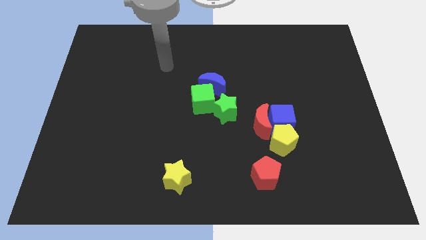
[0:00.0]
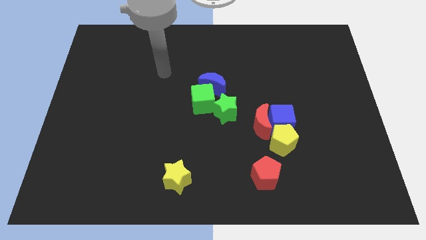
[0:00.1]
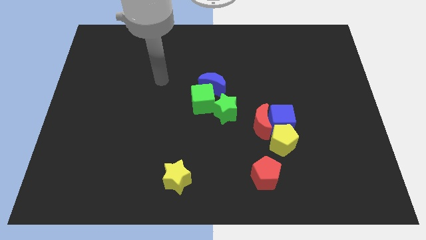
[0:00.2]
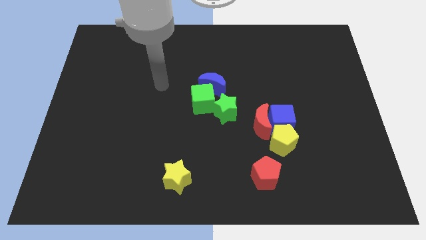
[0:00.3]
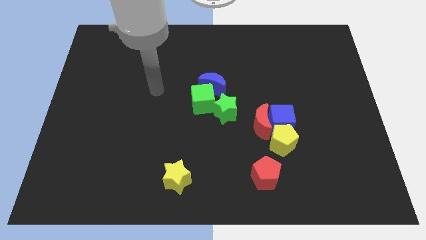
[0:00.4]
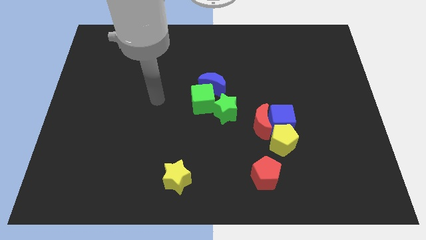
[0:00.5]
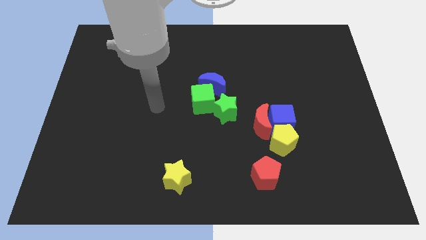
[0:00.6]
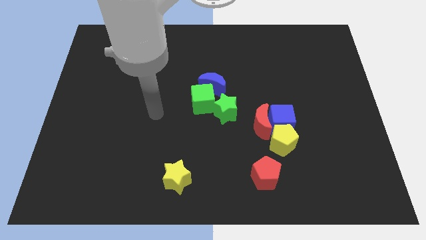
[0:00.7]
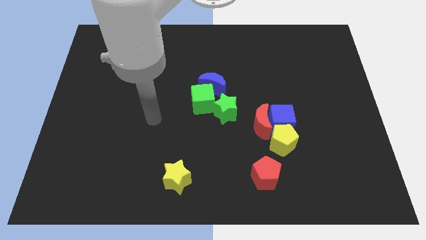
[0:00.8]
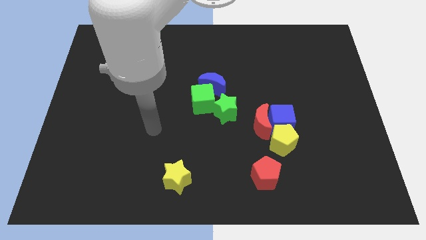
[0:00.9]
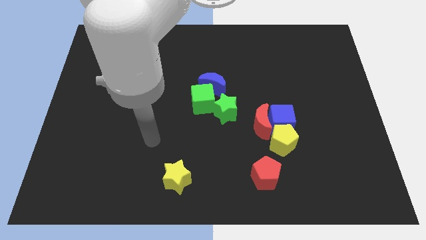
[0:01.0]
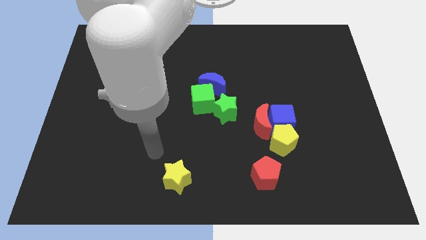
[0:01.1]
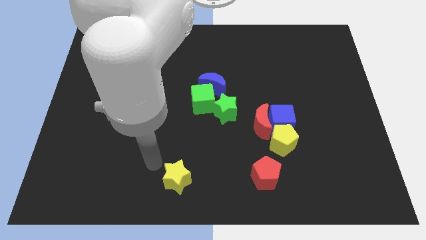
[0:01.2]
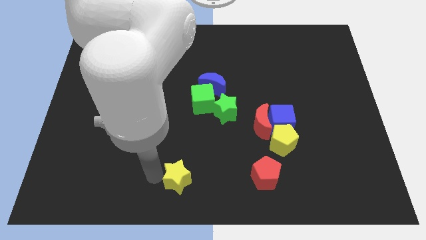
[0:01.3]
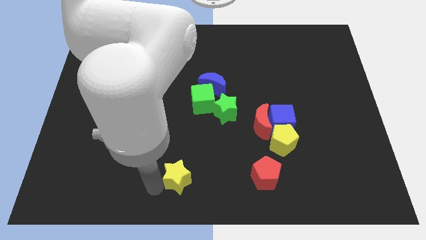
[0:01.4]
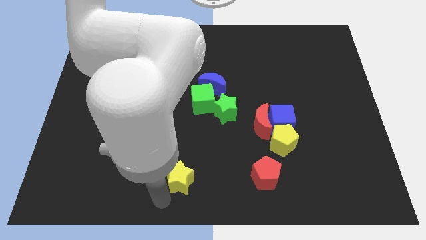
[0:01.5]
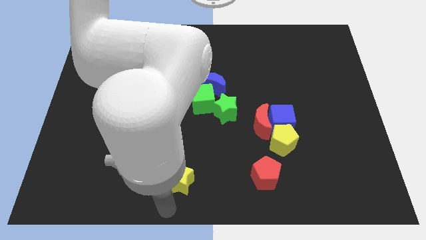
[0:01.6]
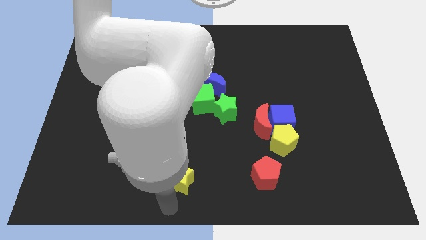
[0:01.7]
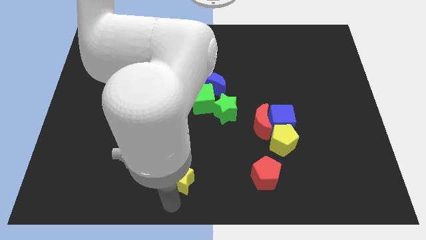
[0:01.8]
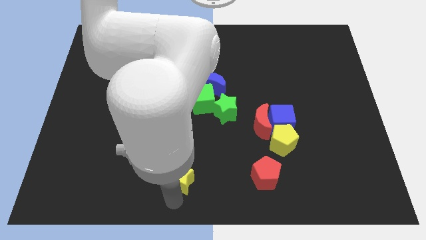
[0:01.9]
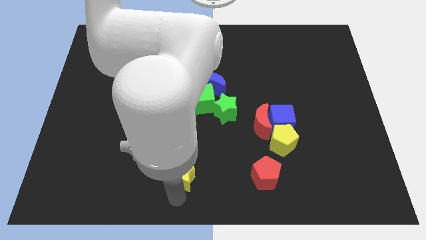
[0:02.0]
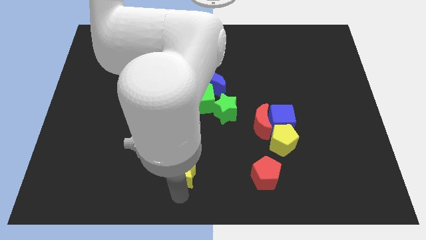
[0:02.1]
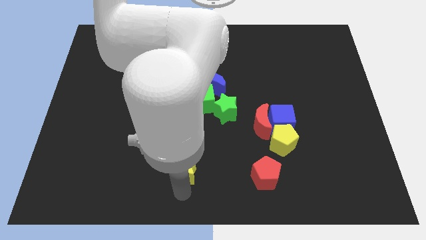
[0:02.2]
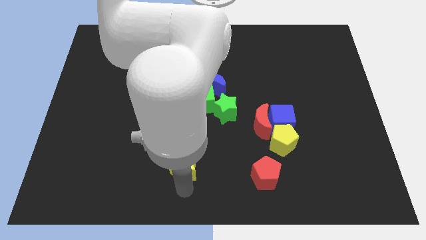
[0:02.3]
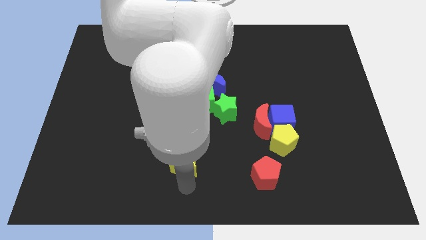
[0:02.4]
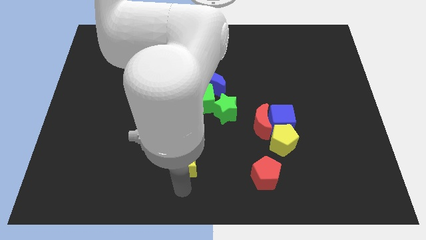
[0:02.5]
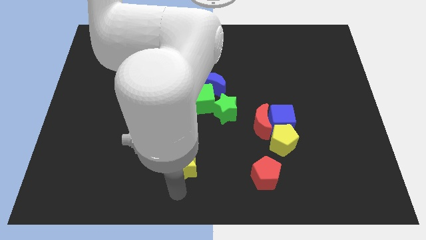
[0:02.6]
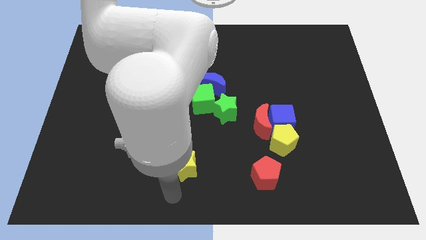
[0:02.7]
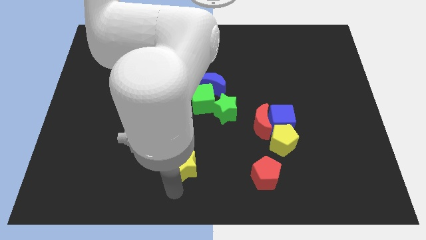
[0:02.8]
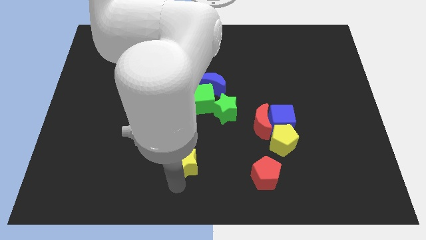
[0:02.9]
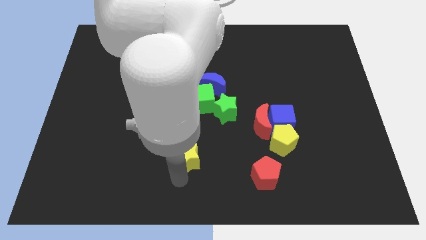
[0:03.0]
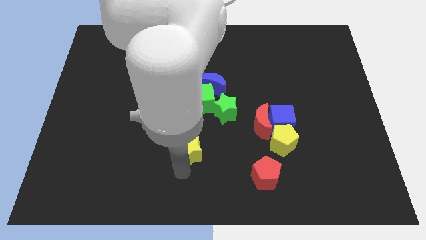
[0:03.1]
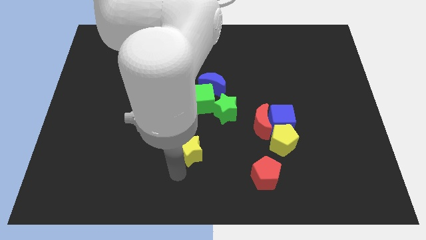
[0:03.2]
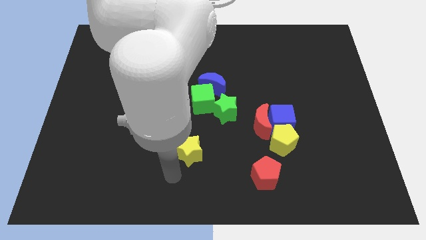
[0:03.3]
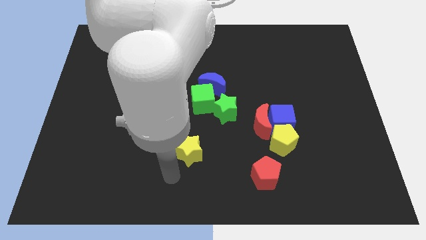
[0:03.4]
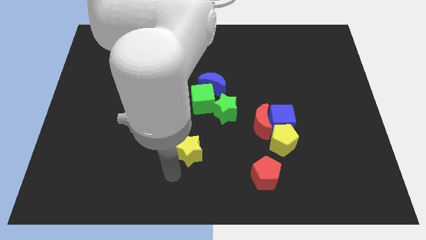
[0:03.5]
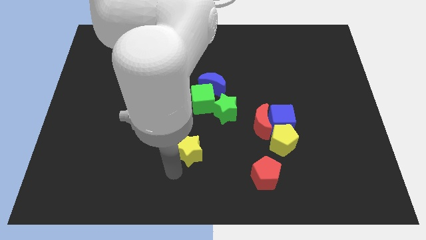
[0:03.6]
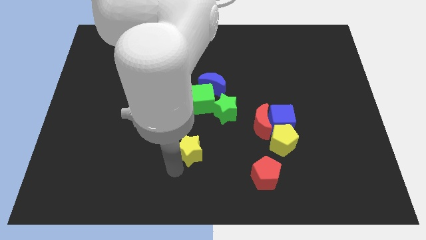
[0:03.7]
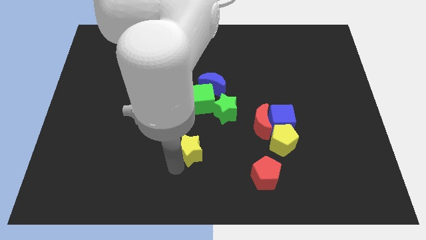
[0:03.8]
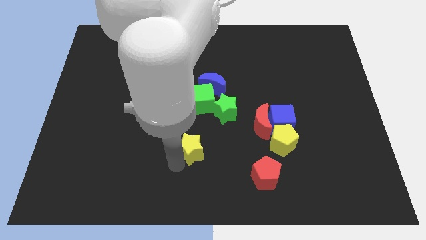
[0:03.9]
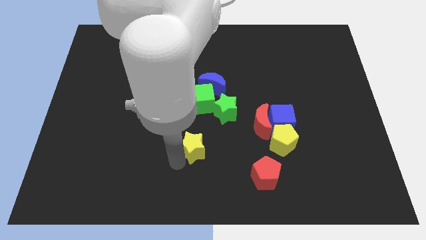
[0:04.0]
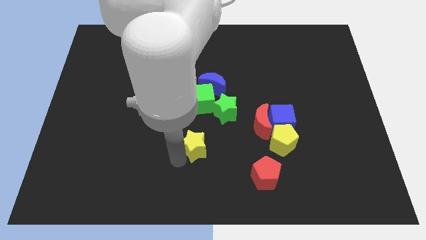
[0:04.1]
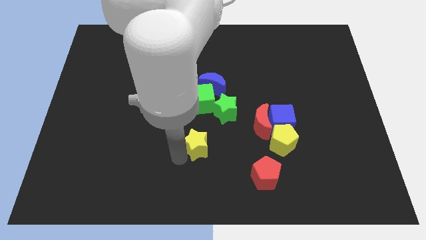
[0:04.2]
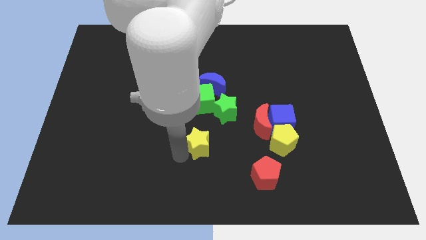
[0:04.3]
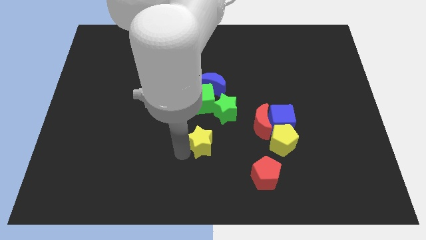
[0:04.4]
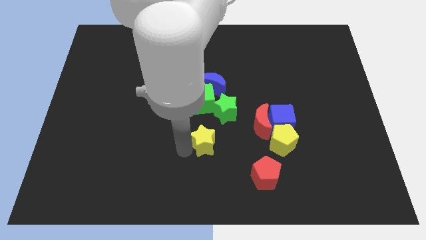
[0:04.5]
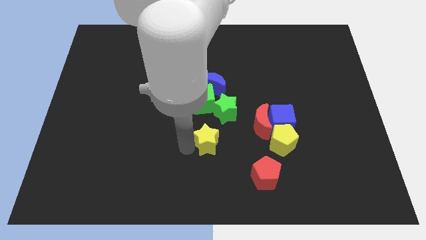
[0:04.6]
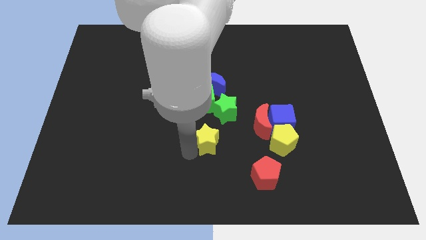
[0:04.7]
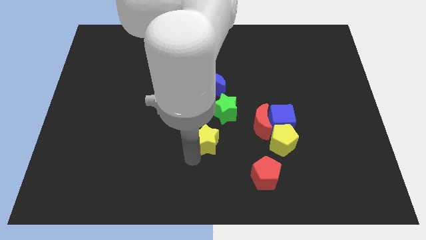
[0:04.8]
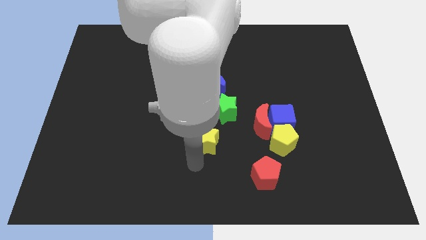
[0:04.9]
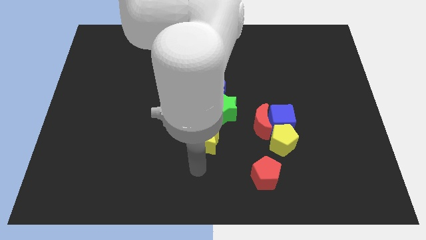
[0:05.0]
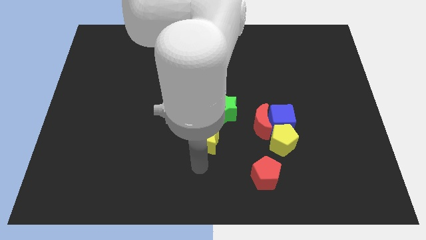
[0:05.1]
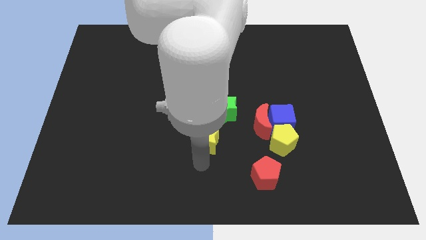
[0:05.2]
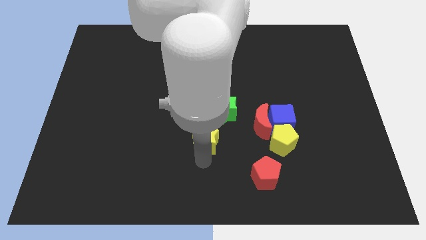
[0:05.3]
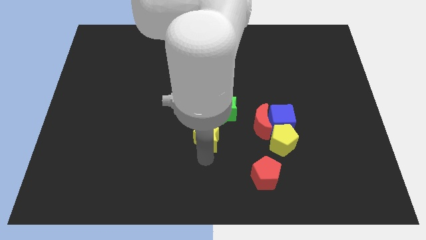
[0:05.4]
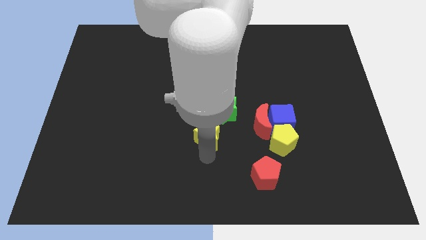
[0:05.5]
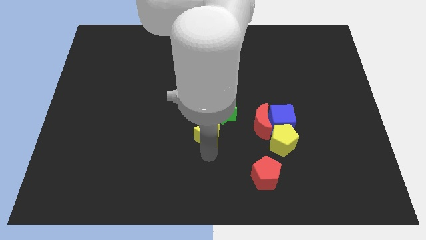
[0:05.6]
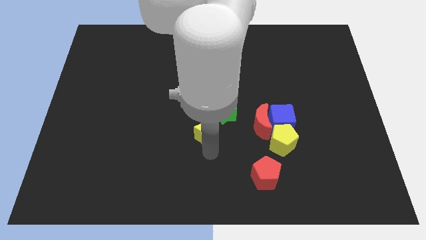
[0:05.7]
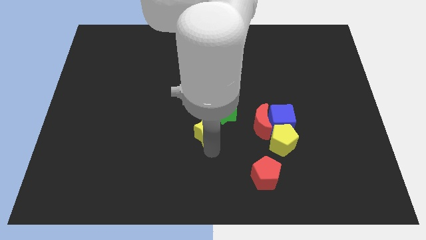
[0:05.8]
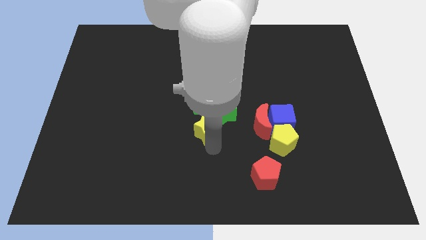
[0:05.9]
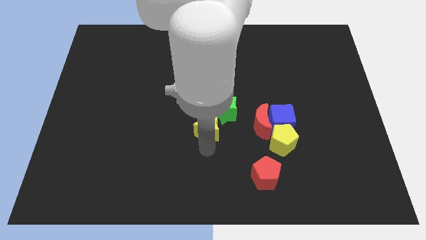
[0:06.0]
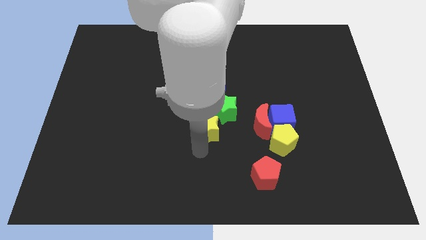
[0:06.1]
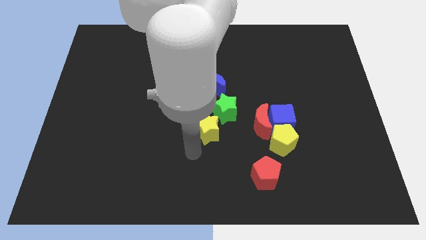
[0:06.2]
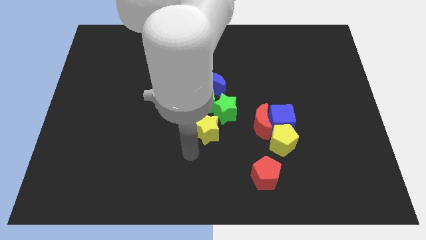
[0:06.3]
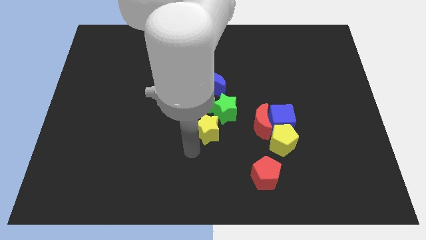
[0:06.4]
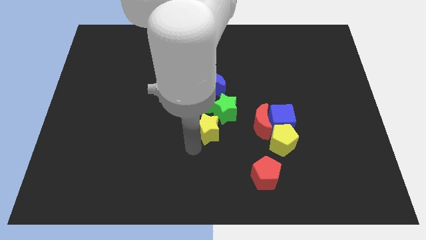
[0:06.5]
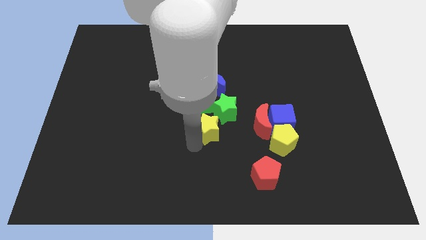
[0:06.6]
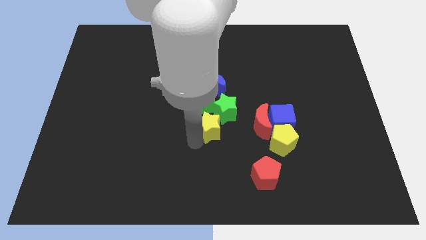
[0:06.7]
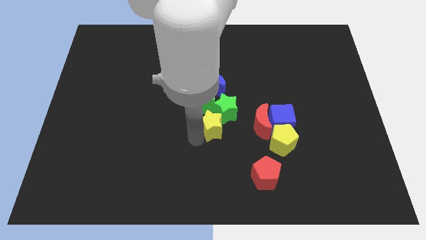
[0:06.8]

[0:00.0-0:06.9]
put the yellow star close to the green star

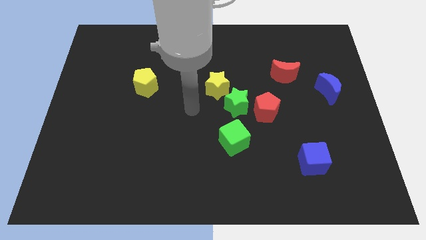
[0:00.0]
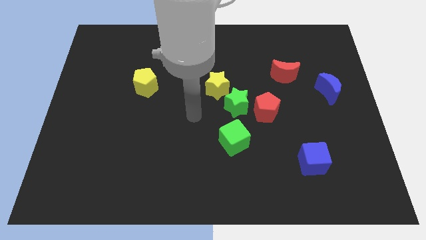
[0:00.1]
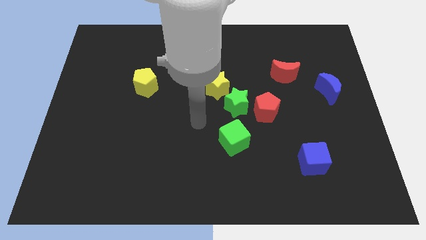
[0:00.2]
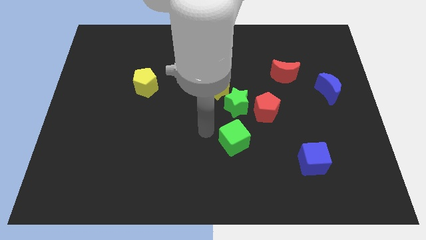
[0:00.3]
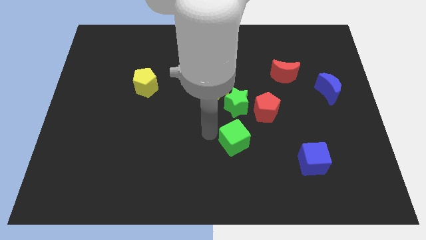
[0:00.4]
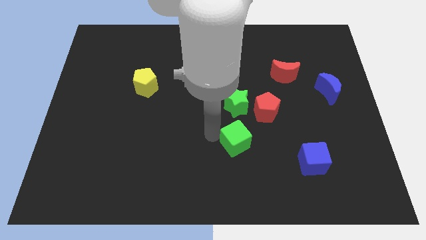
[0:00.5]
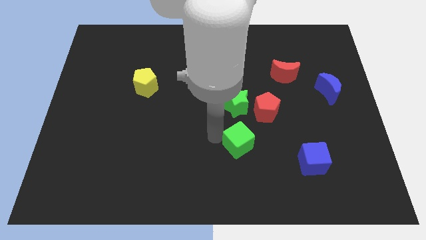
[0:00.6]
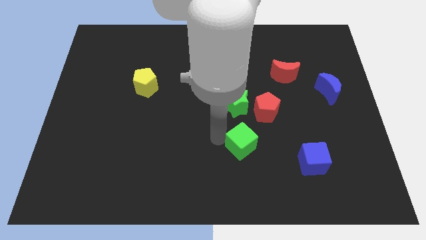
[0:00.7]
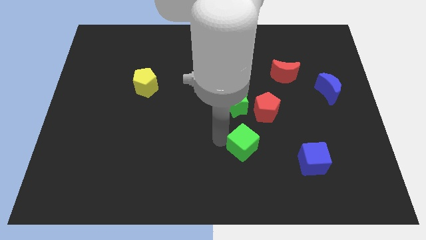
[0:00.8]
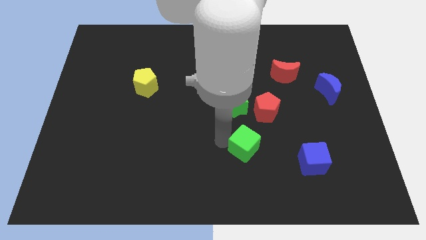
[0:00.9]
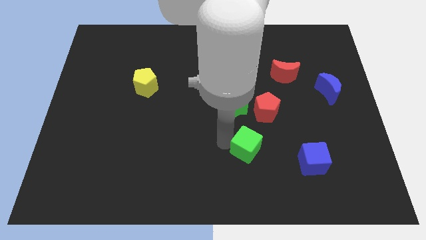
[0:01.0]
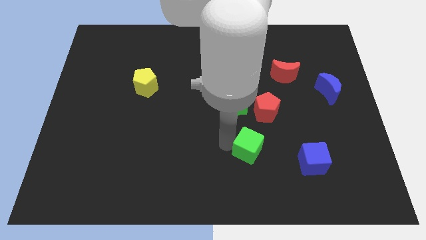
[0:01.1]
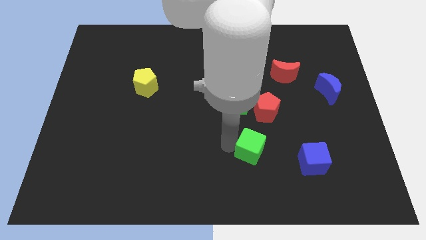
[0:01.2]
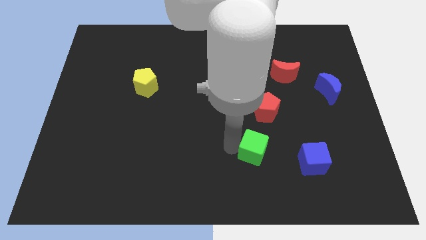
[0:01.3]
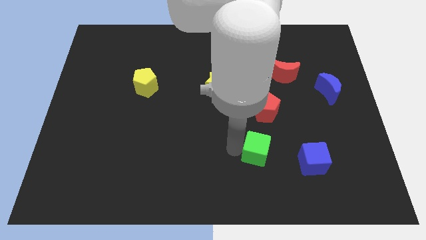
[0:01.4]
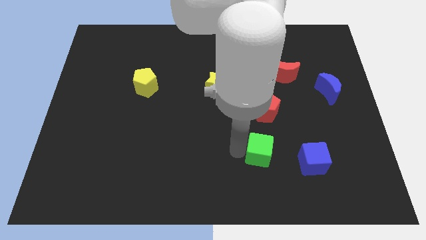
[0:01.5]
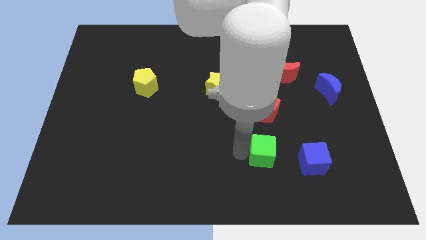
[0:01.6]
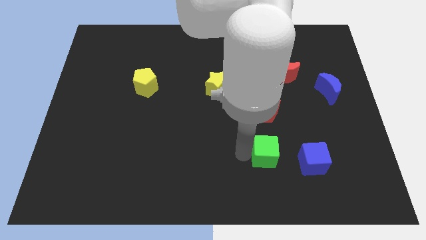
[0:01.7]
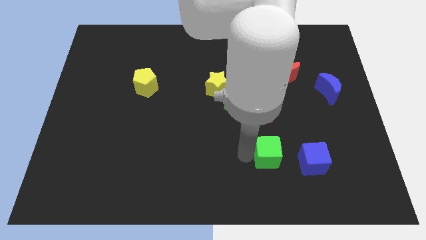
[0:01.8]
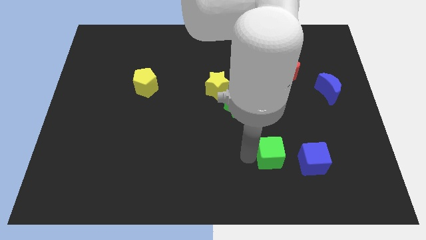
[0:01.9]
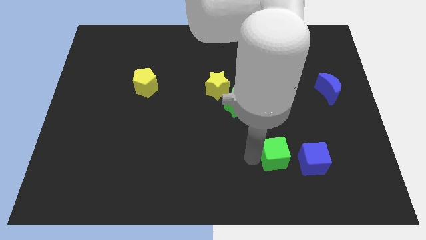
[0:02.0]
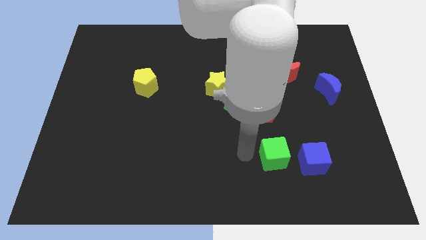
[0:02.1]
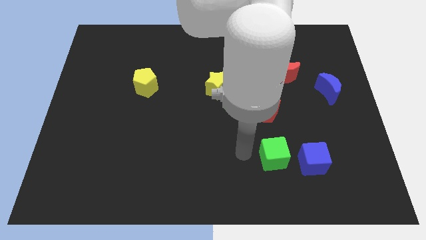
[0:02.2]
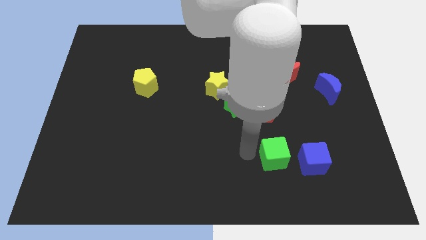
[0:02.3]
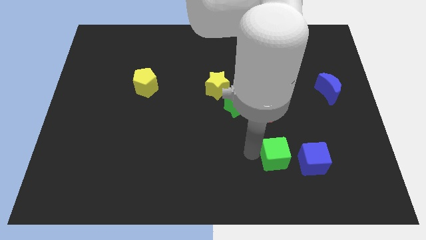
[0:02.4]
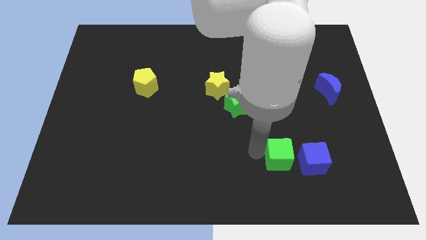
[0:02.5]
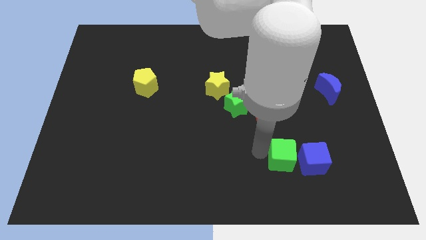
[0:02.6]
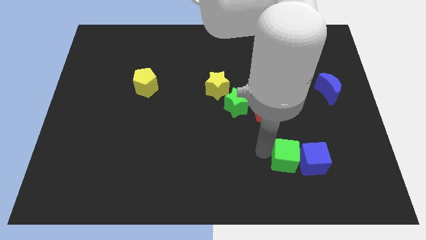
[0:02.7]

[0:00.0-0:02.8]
move the green cube close to the blue cube
